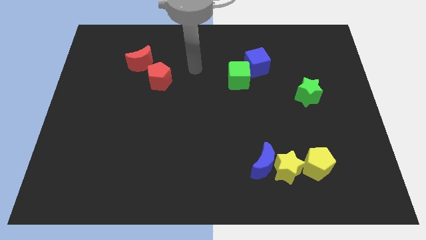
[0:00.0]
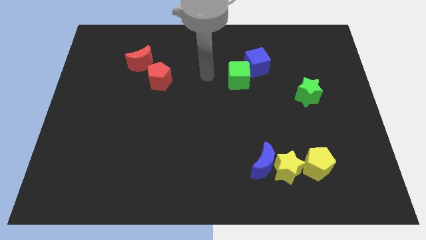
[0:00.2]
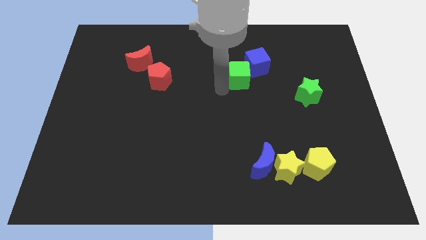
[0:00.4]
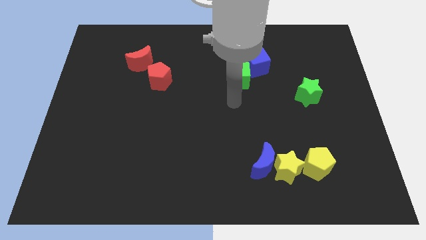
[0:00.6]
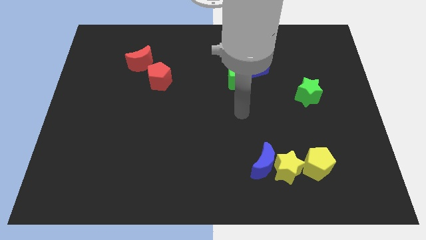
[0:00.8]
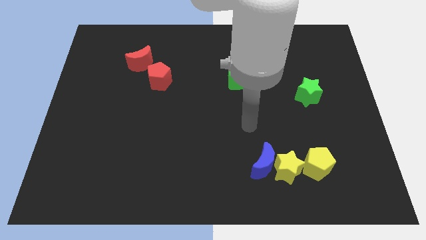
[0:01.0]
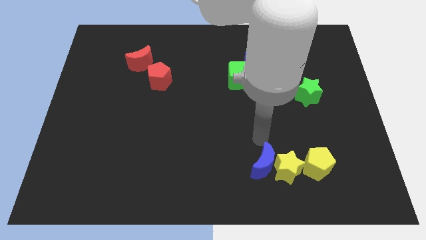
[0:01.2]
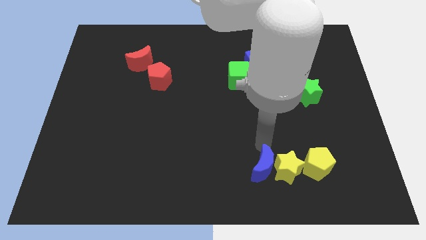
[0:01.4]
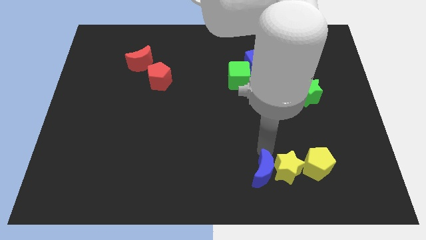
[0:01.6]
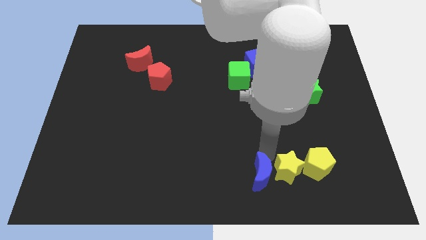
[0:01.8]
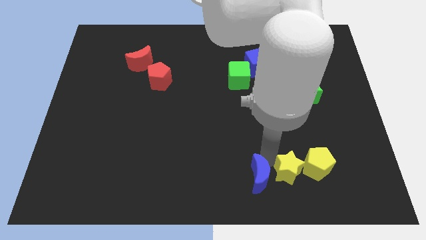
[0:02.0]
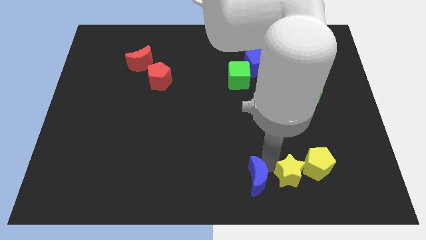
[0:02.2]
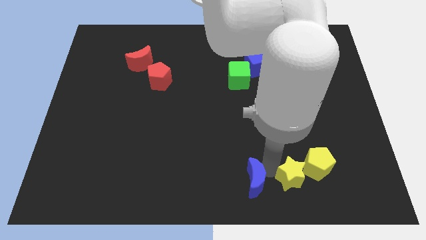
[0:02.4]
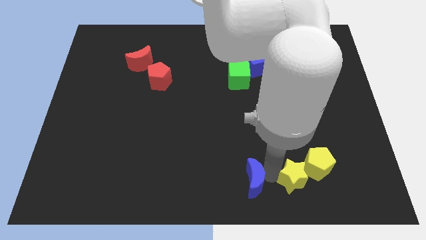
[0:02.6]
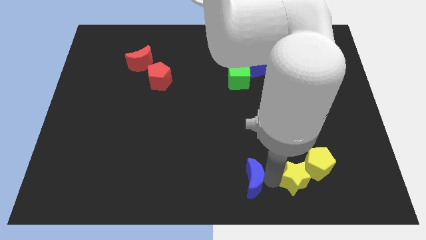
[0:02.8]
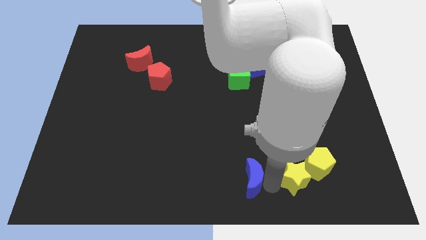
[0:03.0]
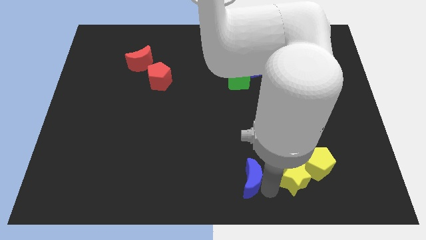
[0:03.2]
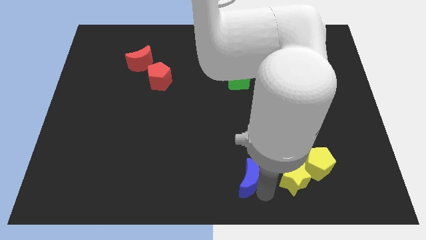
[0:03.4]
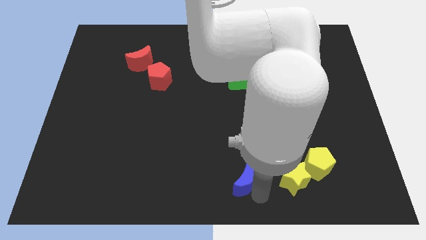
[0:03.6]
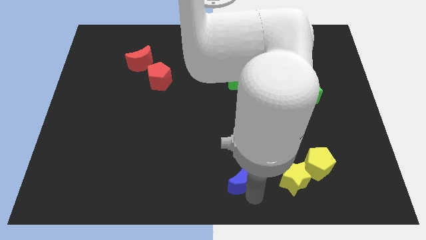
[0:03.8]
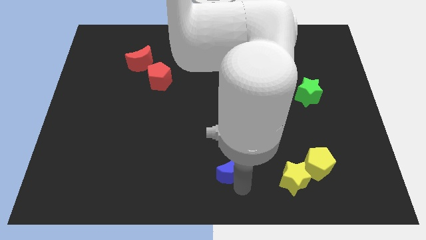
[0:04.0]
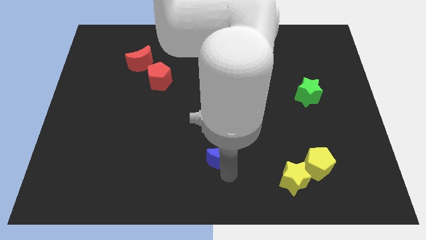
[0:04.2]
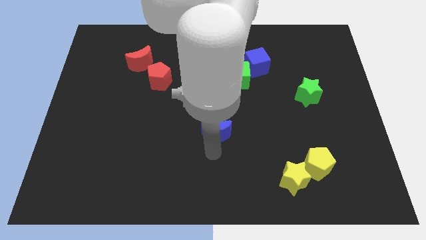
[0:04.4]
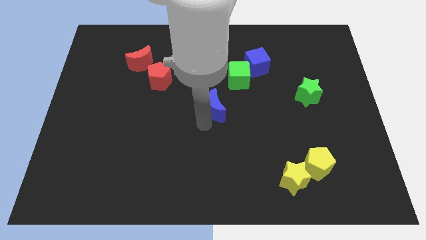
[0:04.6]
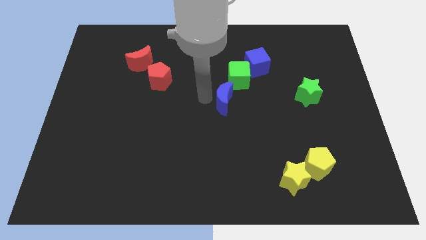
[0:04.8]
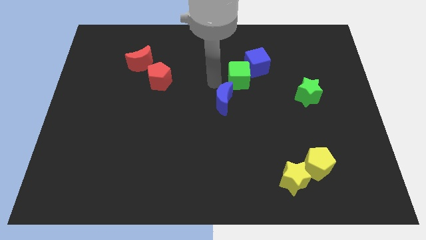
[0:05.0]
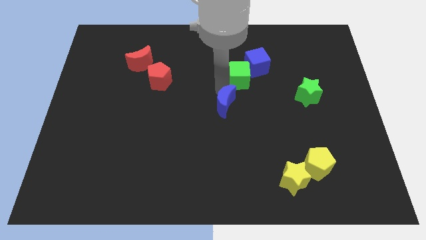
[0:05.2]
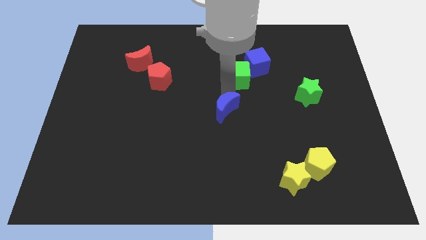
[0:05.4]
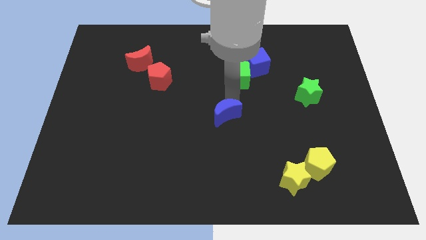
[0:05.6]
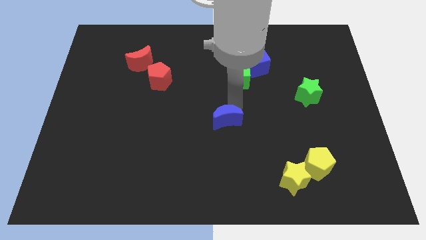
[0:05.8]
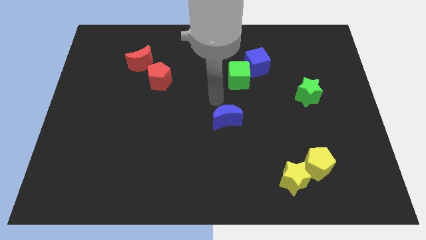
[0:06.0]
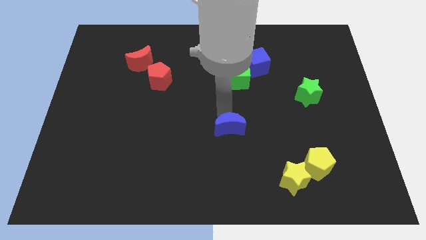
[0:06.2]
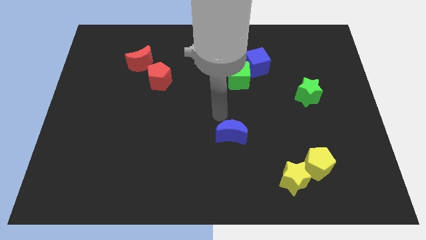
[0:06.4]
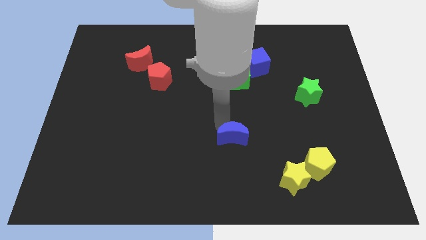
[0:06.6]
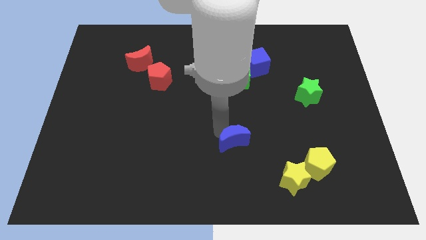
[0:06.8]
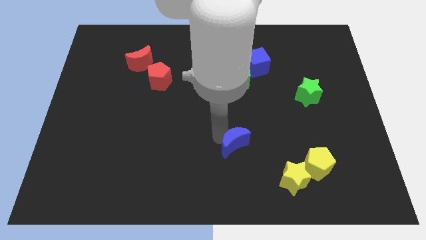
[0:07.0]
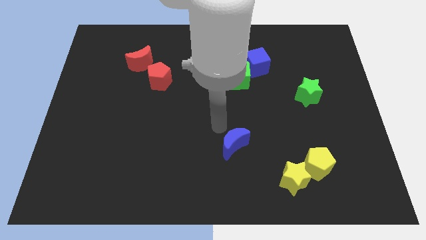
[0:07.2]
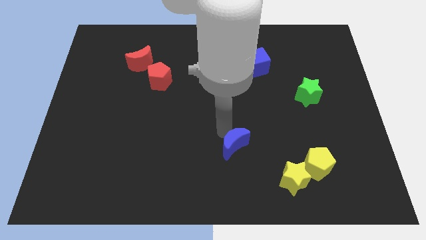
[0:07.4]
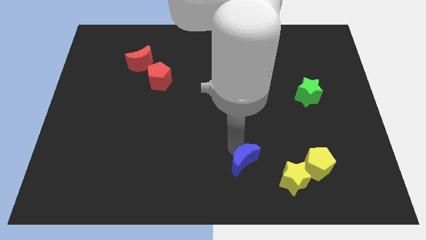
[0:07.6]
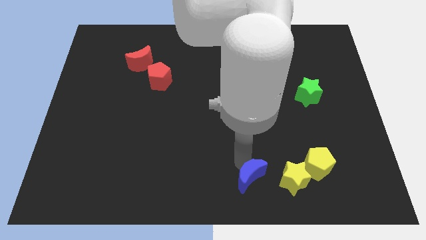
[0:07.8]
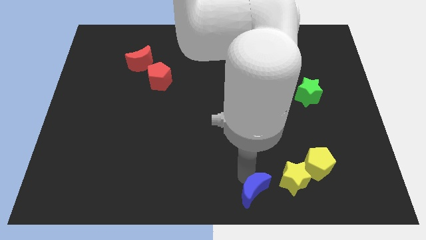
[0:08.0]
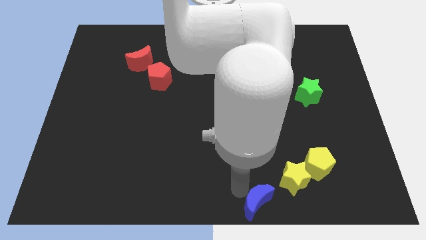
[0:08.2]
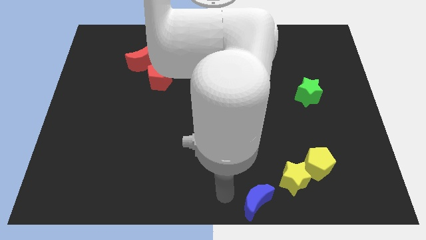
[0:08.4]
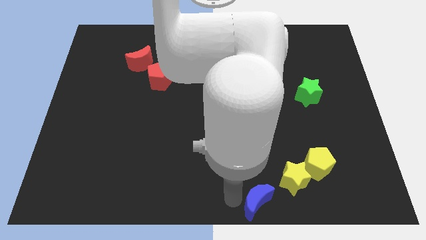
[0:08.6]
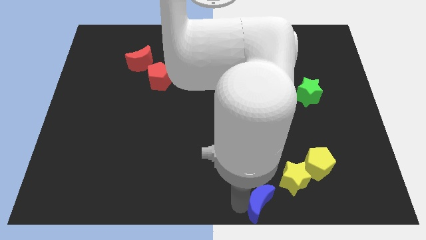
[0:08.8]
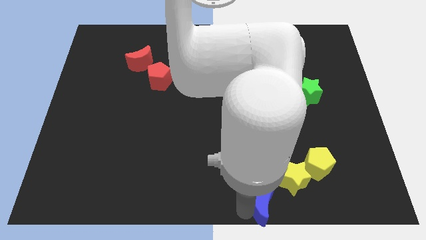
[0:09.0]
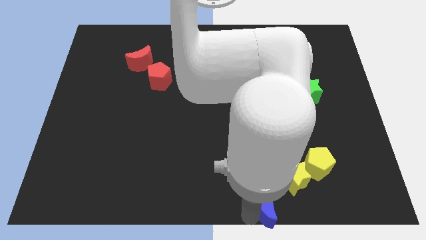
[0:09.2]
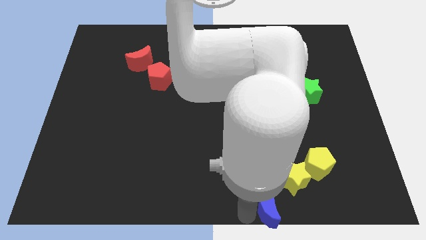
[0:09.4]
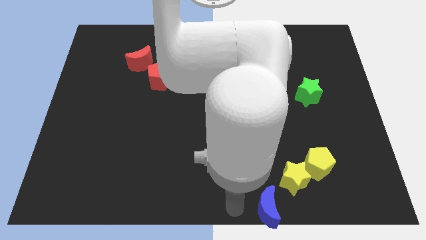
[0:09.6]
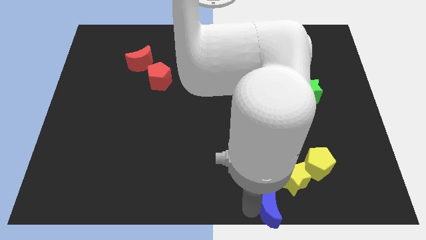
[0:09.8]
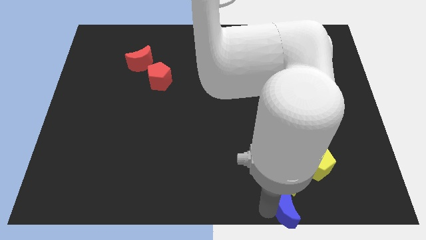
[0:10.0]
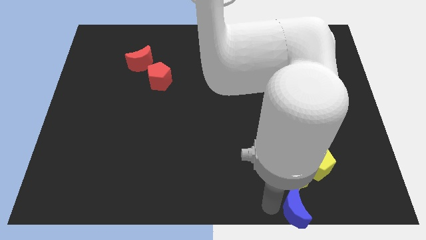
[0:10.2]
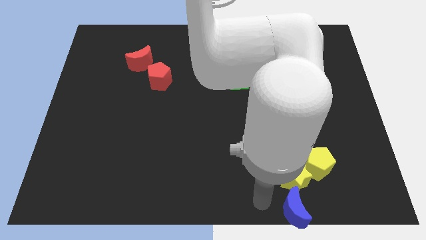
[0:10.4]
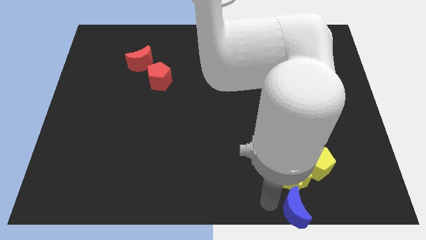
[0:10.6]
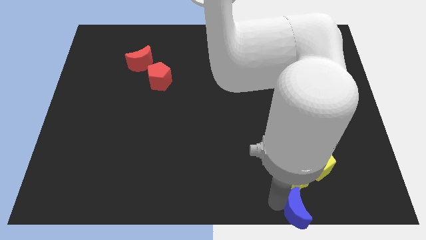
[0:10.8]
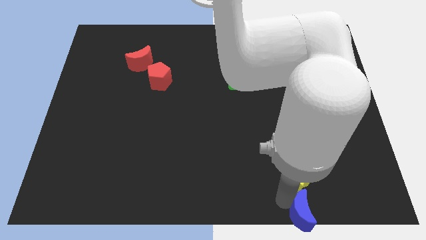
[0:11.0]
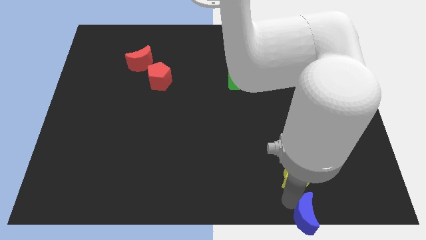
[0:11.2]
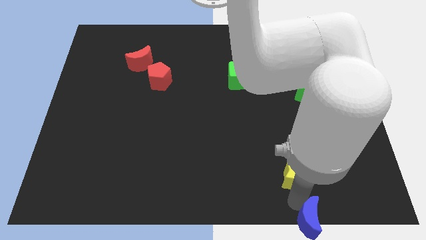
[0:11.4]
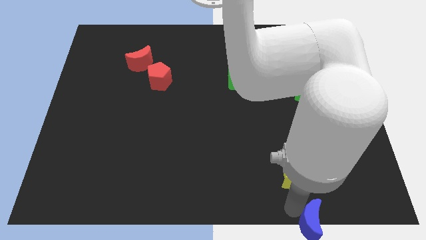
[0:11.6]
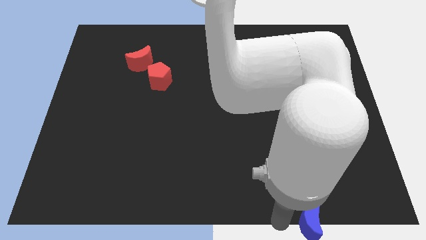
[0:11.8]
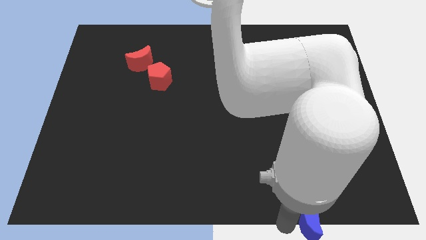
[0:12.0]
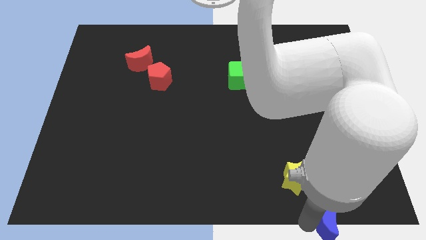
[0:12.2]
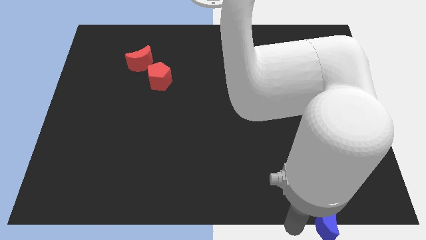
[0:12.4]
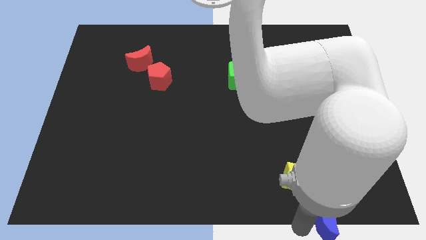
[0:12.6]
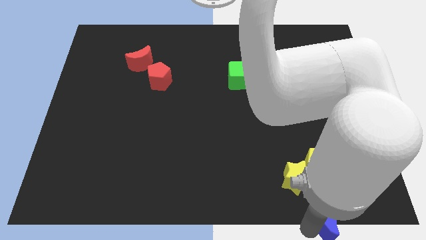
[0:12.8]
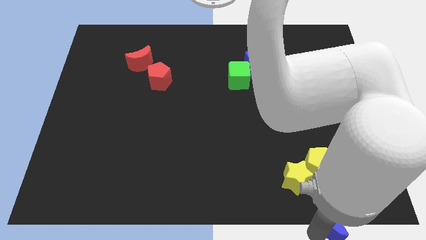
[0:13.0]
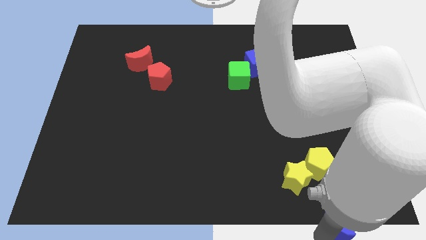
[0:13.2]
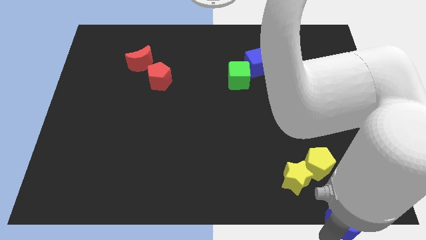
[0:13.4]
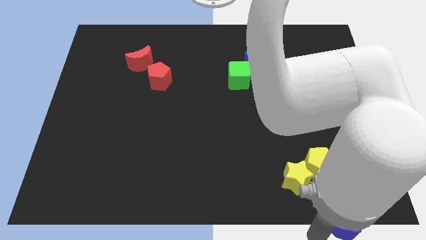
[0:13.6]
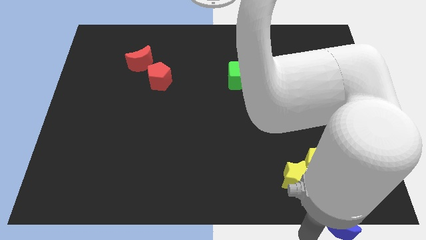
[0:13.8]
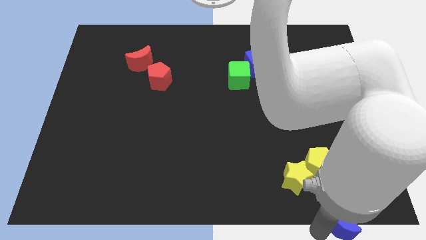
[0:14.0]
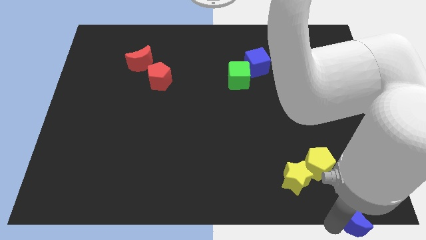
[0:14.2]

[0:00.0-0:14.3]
push the blue moon to the bottom right corner
